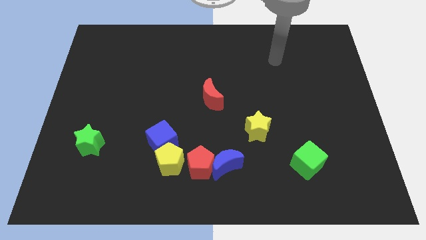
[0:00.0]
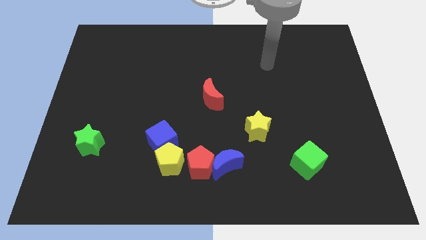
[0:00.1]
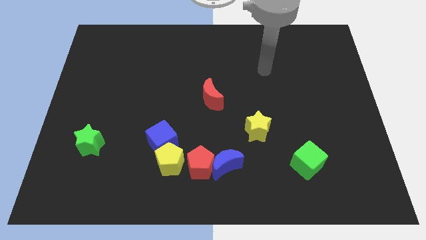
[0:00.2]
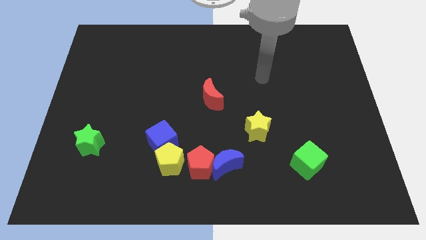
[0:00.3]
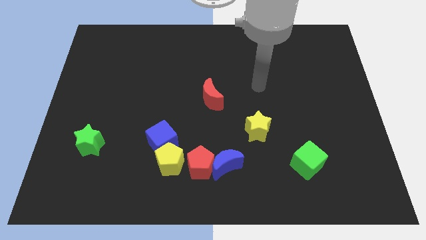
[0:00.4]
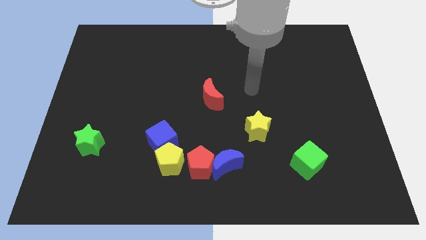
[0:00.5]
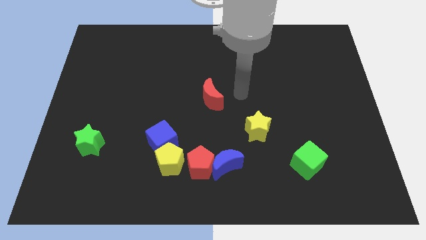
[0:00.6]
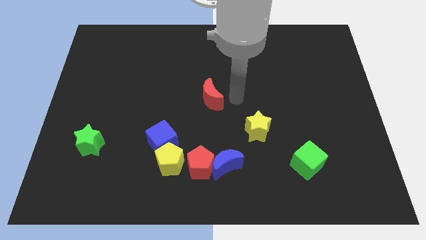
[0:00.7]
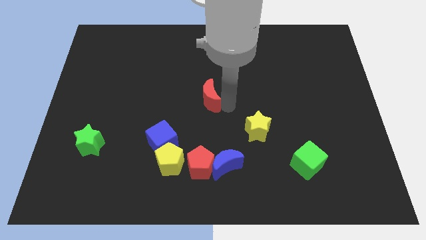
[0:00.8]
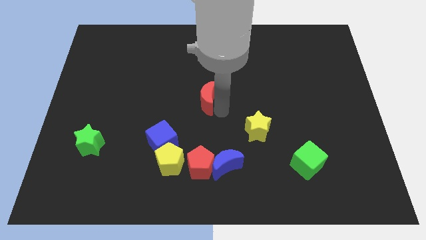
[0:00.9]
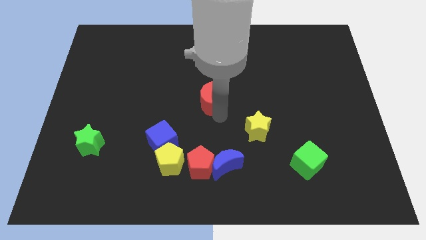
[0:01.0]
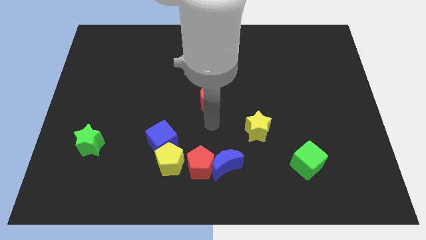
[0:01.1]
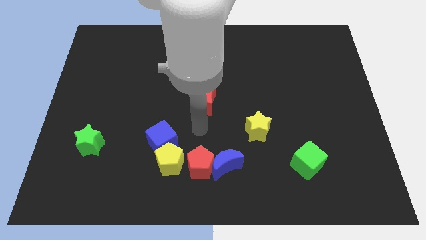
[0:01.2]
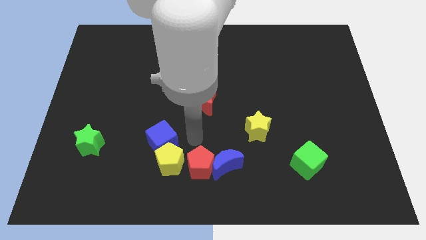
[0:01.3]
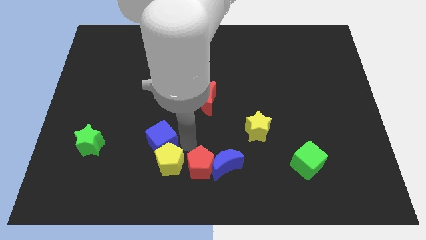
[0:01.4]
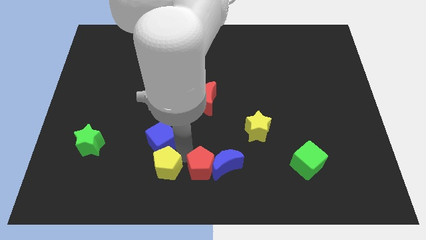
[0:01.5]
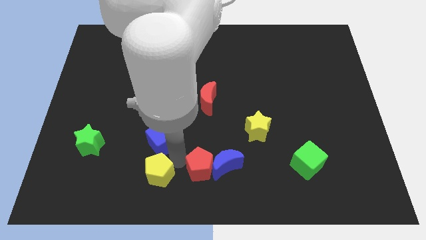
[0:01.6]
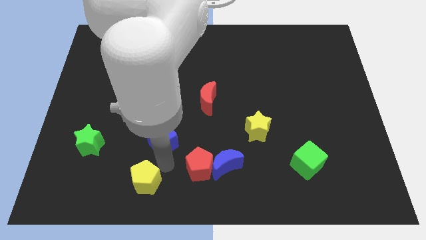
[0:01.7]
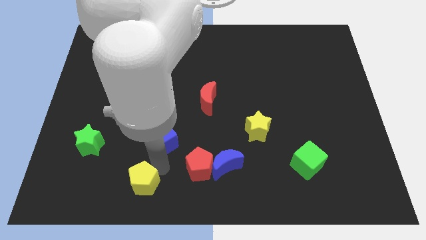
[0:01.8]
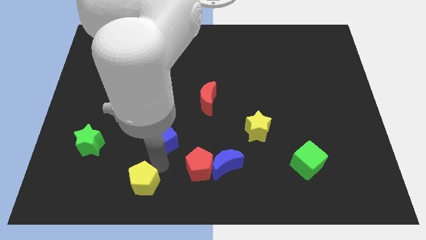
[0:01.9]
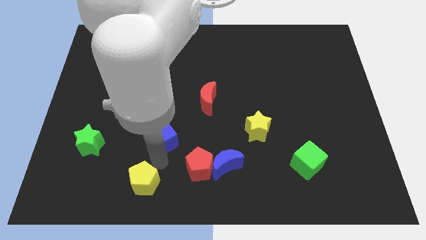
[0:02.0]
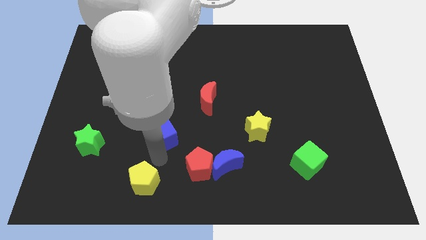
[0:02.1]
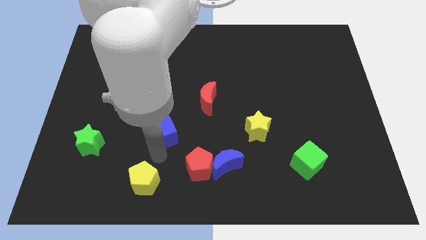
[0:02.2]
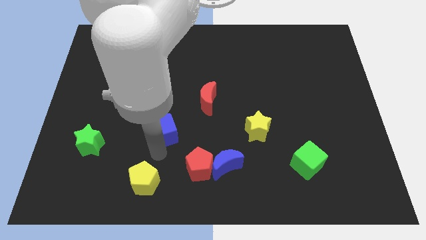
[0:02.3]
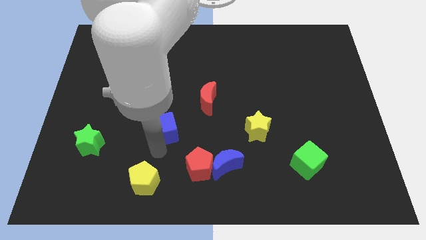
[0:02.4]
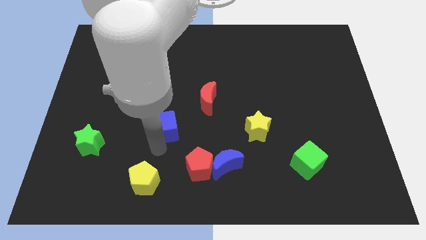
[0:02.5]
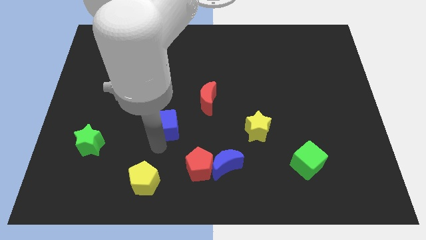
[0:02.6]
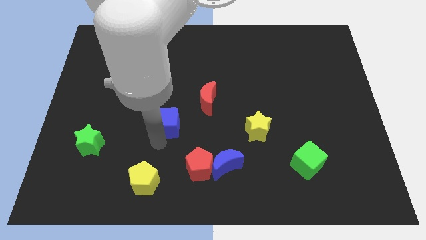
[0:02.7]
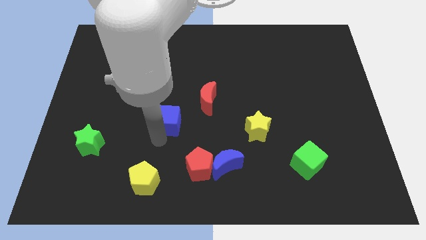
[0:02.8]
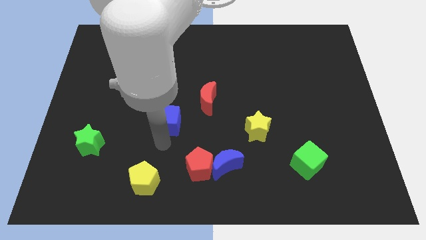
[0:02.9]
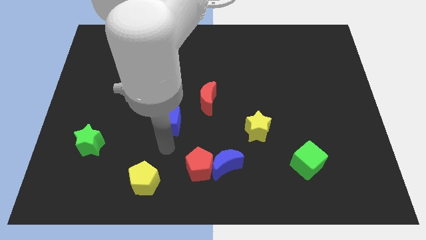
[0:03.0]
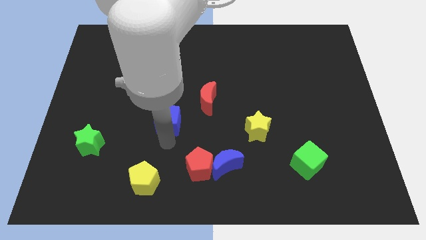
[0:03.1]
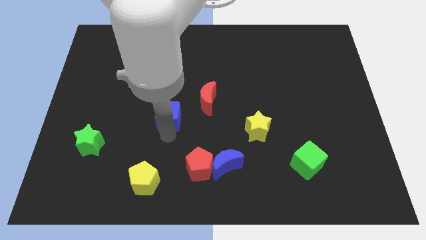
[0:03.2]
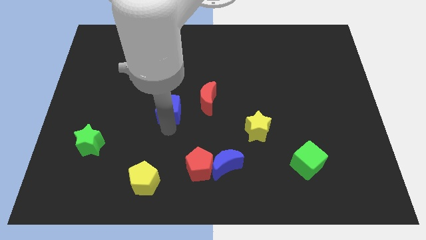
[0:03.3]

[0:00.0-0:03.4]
move the blue cube a bit upwards

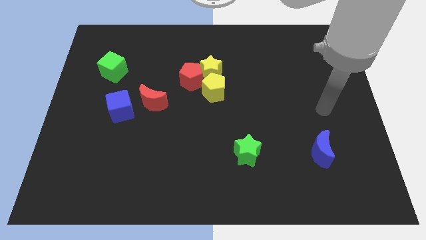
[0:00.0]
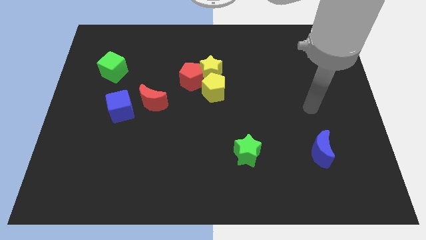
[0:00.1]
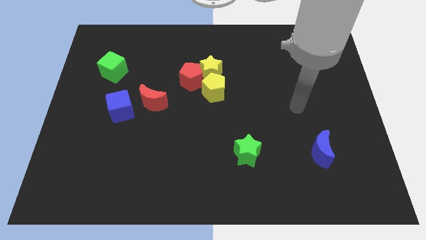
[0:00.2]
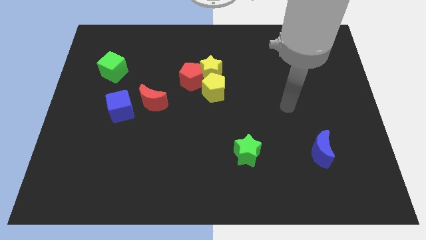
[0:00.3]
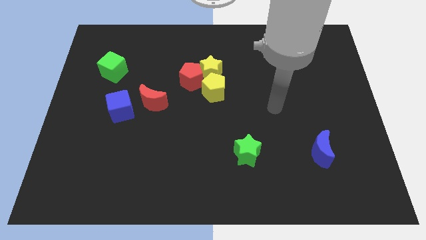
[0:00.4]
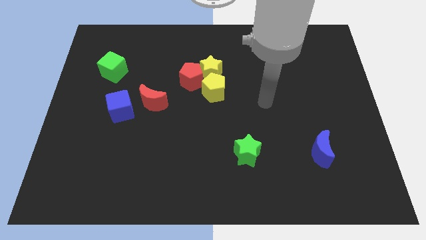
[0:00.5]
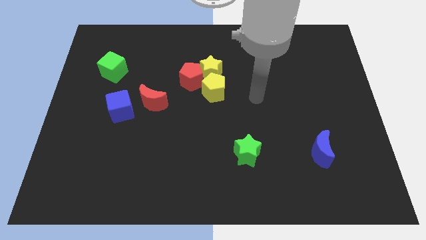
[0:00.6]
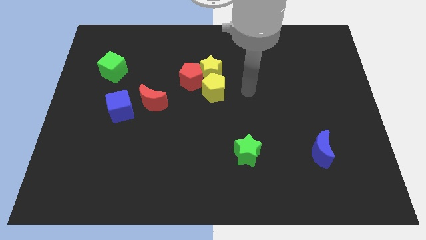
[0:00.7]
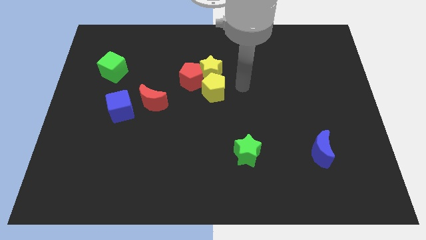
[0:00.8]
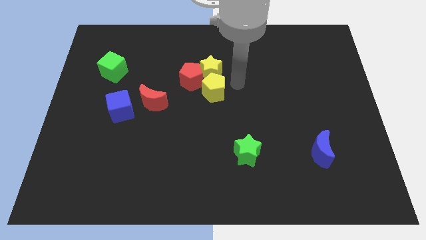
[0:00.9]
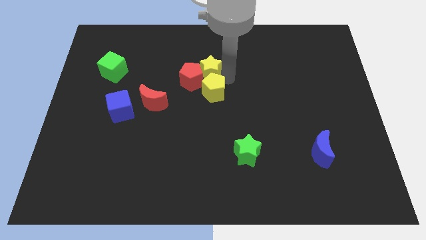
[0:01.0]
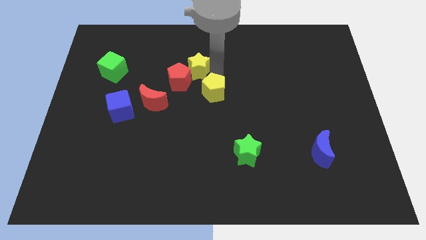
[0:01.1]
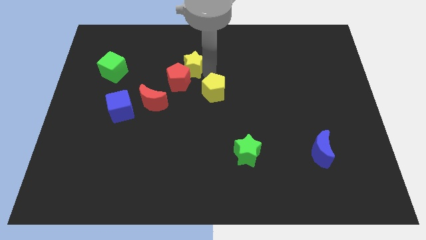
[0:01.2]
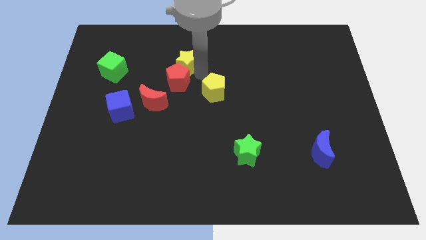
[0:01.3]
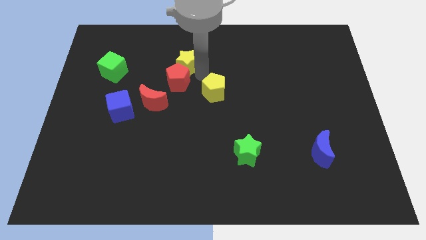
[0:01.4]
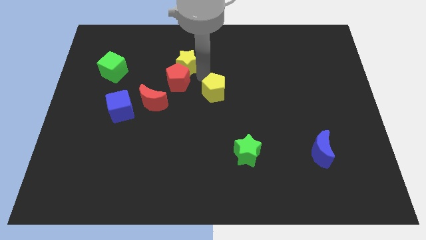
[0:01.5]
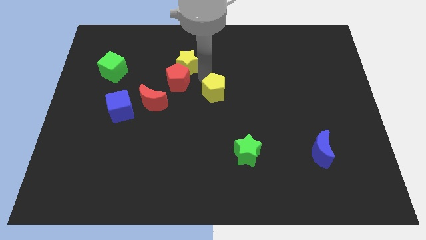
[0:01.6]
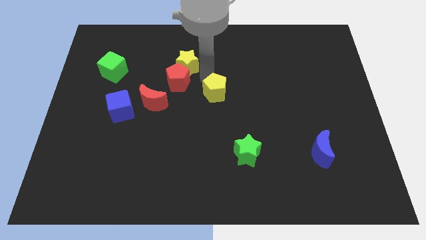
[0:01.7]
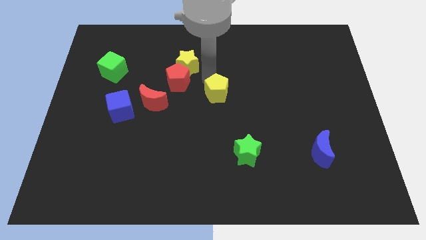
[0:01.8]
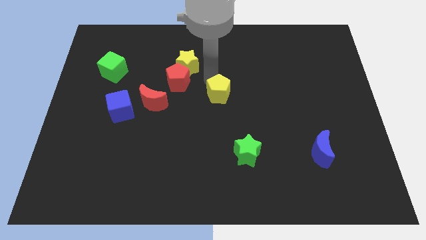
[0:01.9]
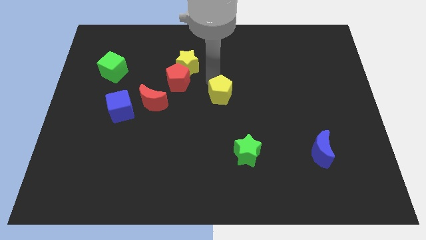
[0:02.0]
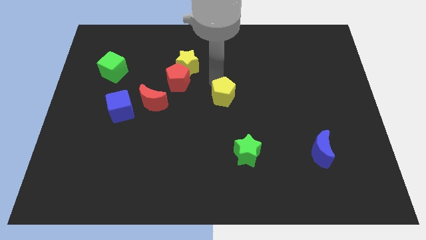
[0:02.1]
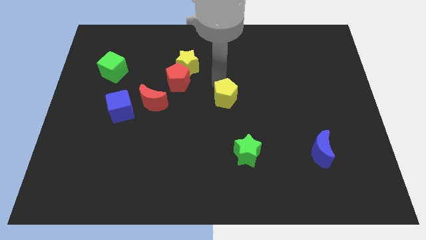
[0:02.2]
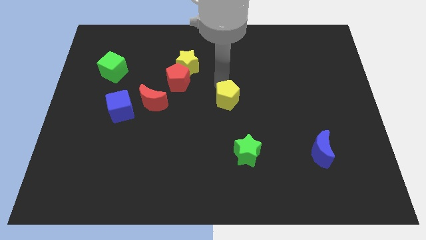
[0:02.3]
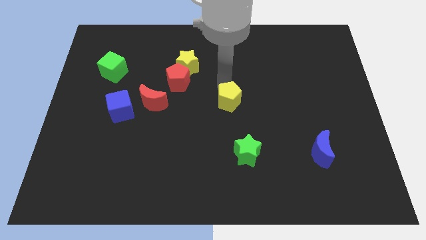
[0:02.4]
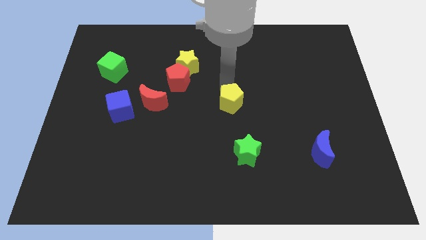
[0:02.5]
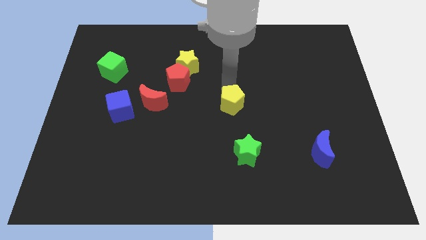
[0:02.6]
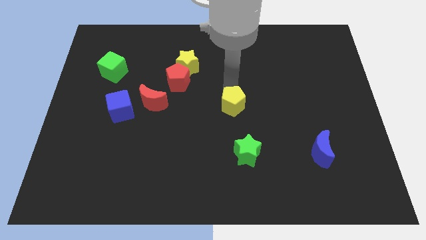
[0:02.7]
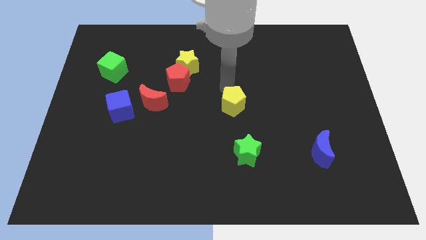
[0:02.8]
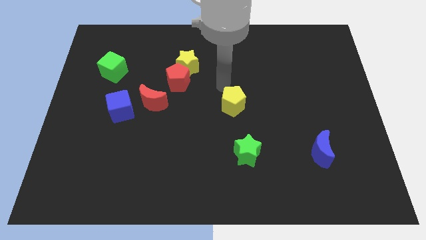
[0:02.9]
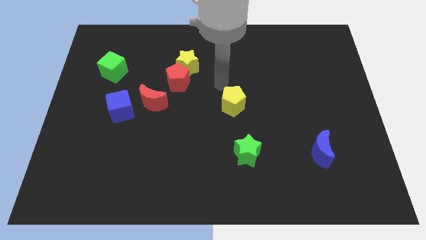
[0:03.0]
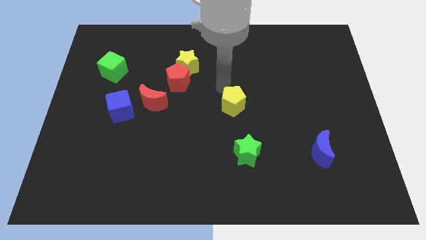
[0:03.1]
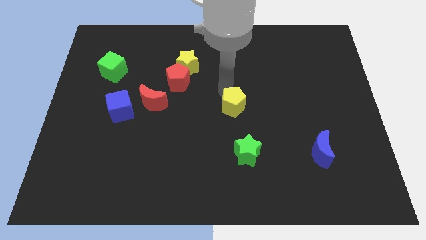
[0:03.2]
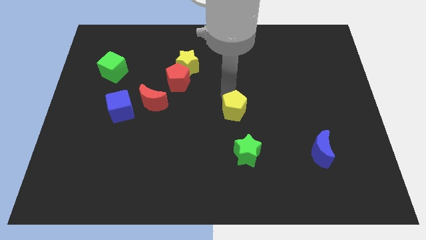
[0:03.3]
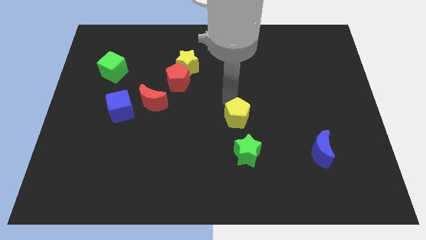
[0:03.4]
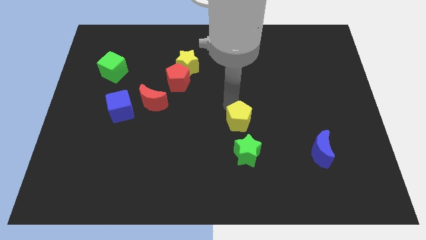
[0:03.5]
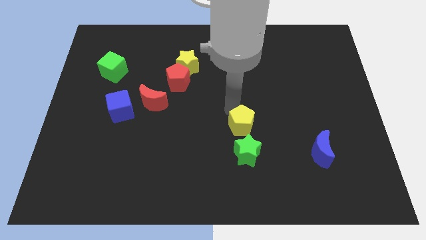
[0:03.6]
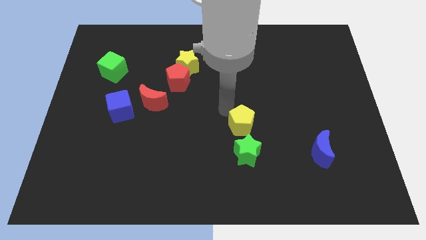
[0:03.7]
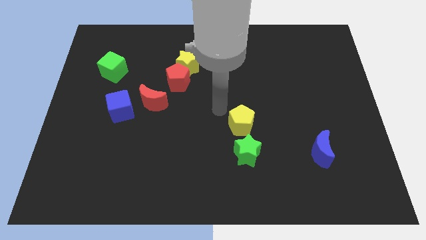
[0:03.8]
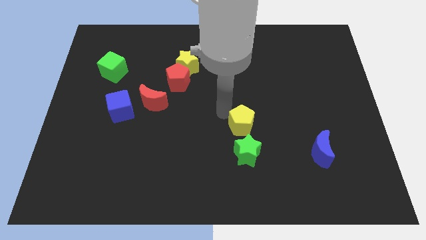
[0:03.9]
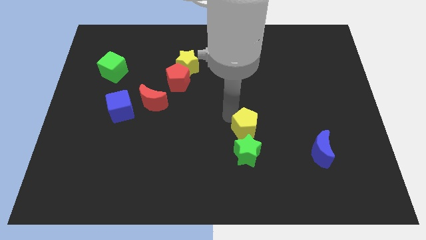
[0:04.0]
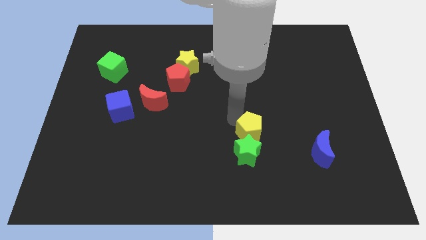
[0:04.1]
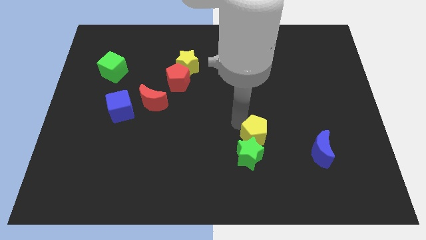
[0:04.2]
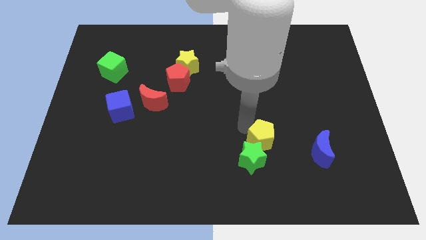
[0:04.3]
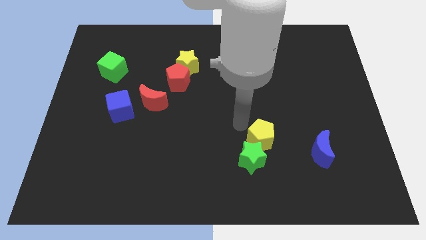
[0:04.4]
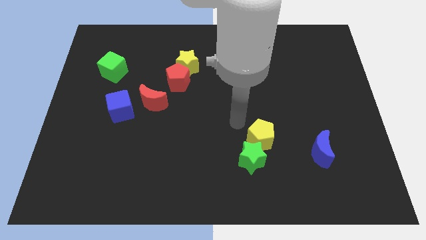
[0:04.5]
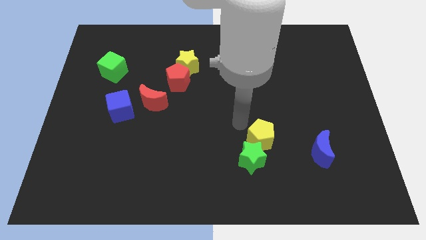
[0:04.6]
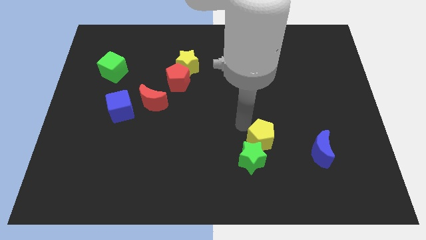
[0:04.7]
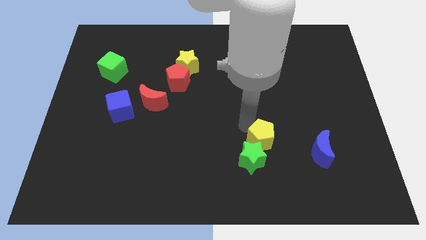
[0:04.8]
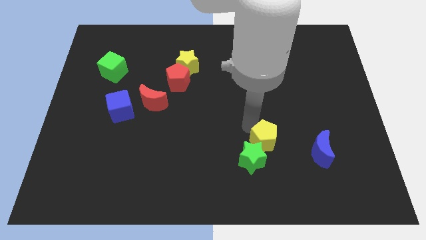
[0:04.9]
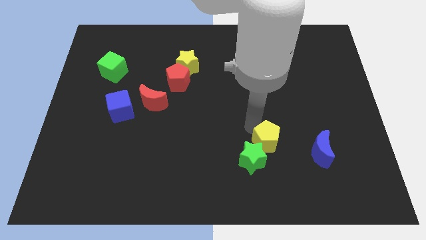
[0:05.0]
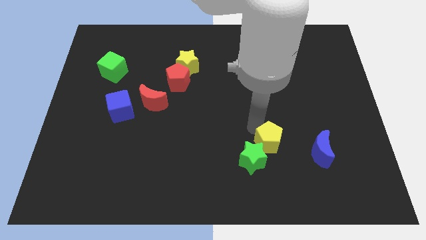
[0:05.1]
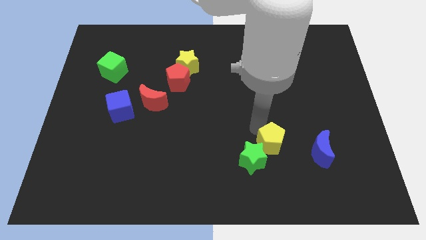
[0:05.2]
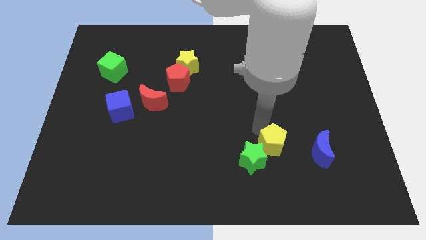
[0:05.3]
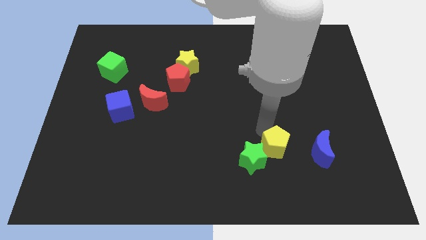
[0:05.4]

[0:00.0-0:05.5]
slide the yellow pentagon down and then to the right
